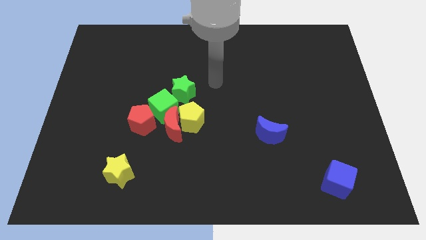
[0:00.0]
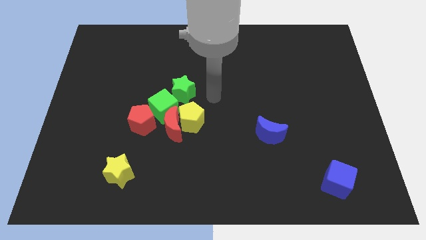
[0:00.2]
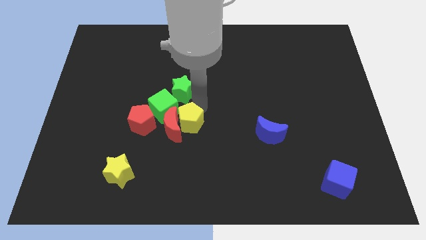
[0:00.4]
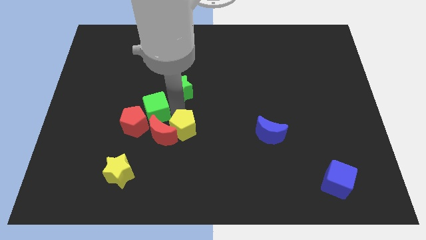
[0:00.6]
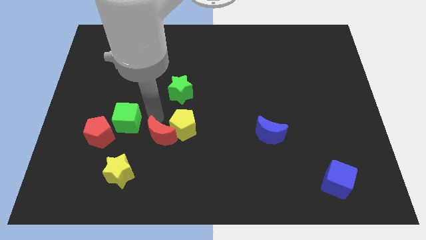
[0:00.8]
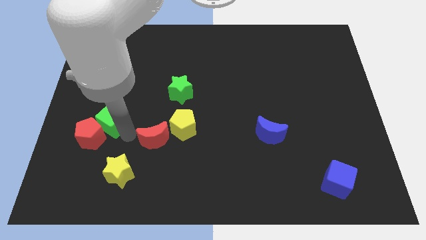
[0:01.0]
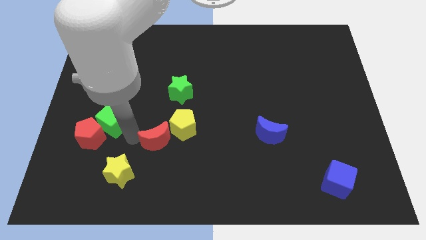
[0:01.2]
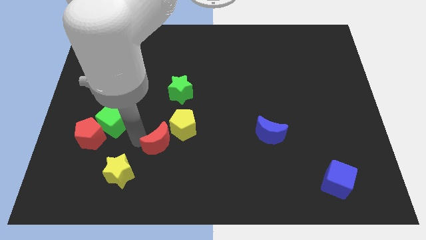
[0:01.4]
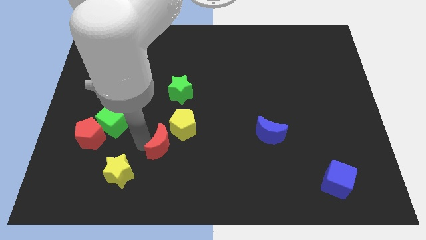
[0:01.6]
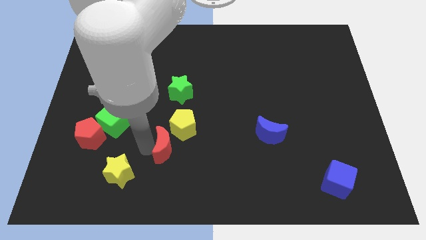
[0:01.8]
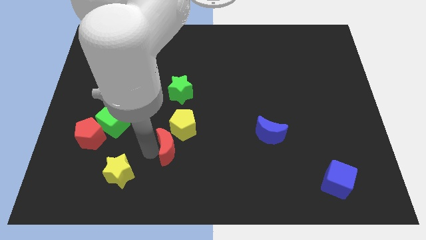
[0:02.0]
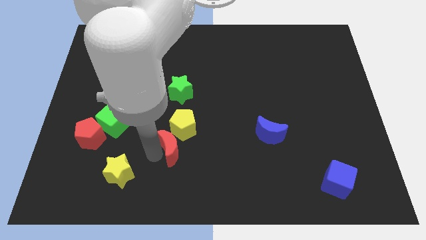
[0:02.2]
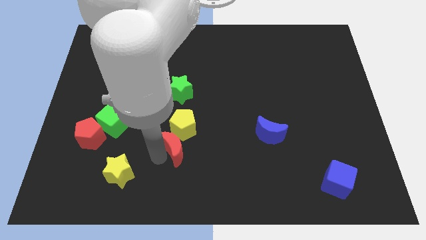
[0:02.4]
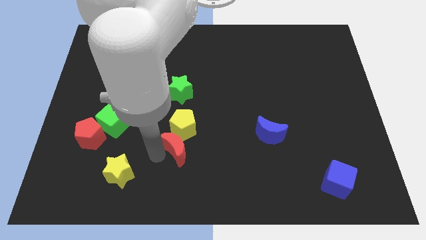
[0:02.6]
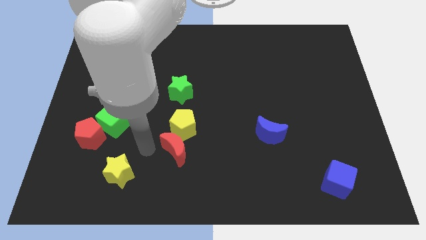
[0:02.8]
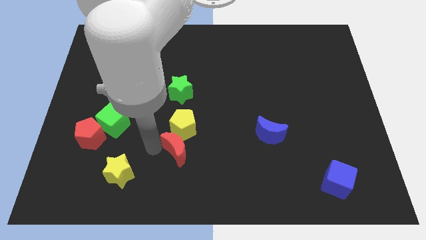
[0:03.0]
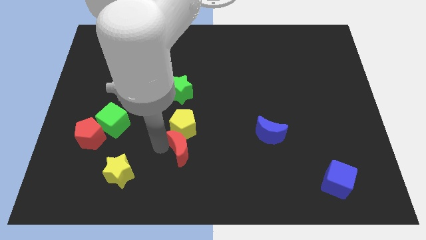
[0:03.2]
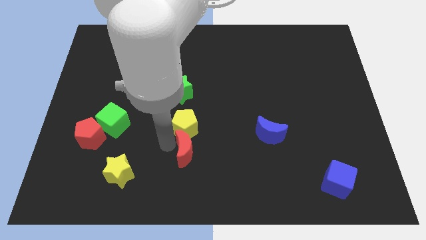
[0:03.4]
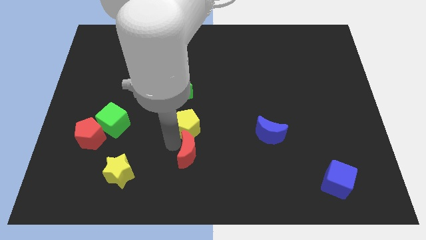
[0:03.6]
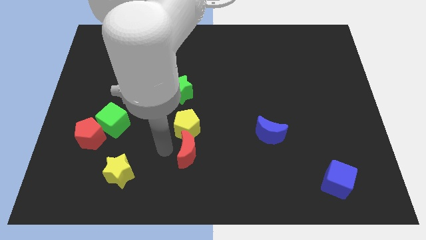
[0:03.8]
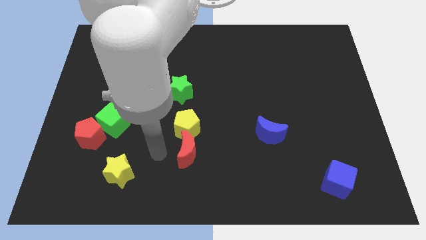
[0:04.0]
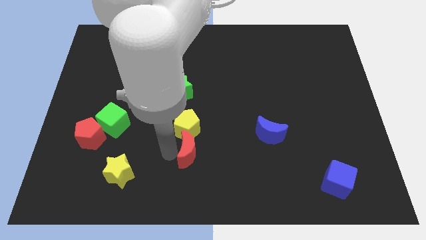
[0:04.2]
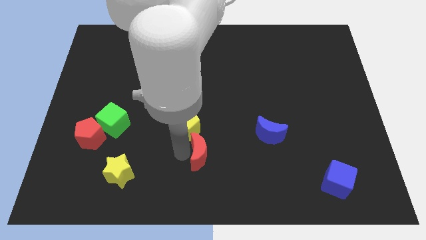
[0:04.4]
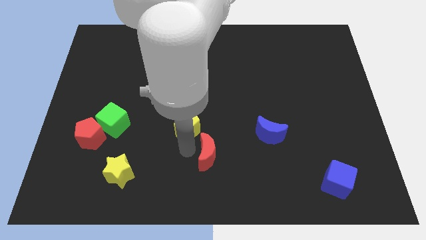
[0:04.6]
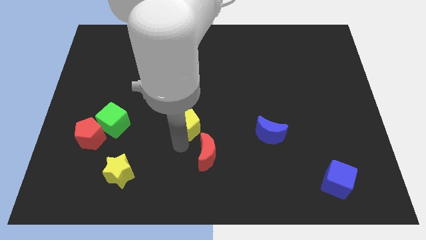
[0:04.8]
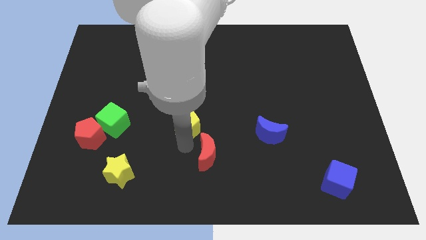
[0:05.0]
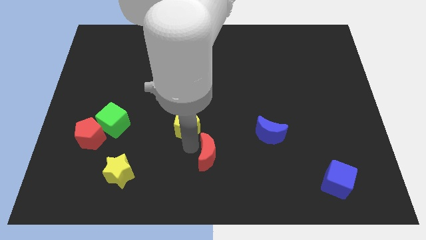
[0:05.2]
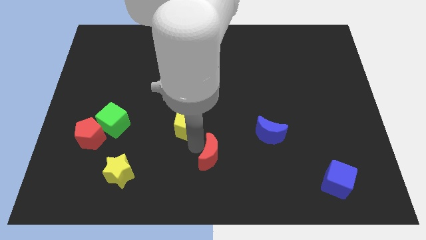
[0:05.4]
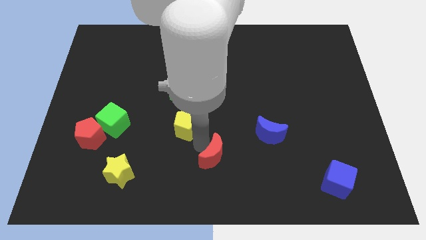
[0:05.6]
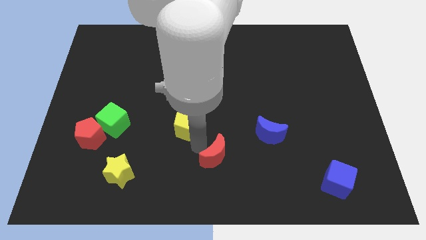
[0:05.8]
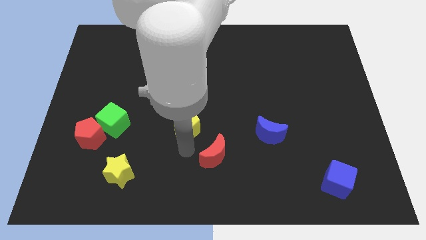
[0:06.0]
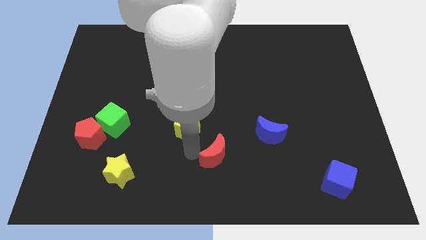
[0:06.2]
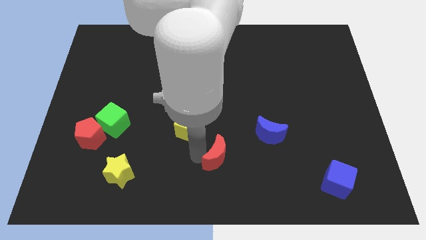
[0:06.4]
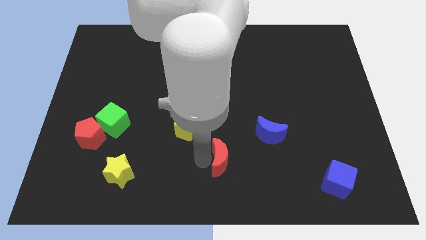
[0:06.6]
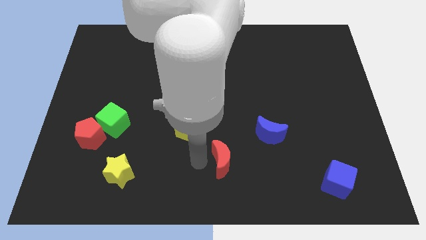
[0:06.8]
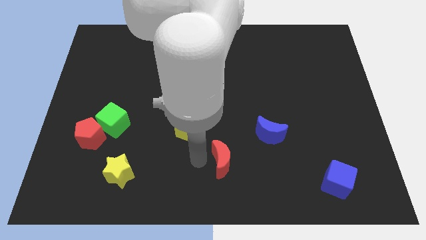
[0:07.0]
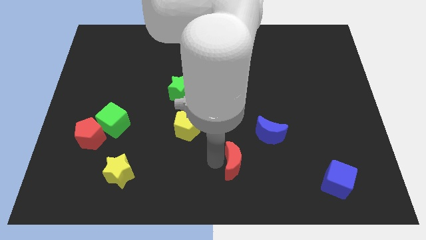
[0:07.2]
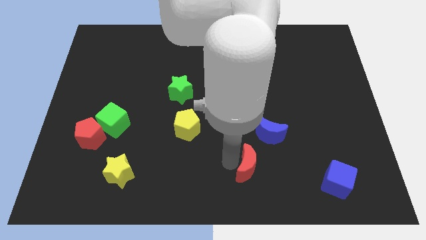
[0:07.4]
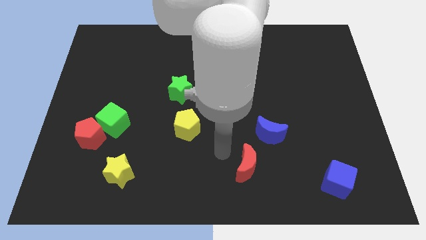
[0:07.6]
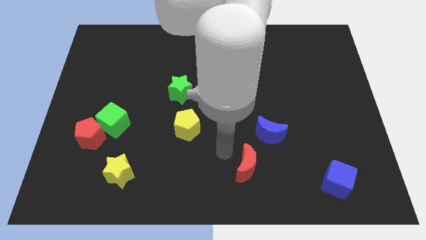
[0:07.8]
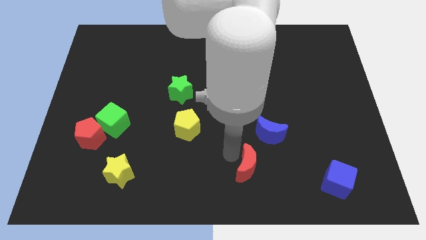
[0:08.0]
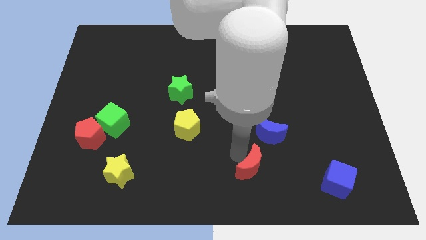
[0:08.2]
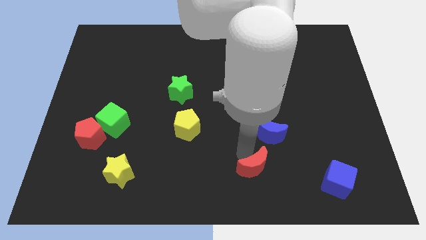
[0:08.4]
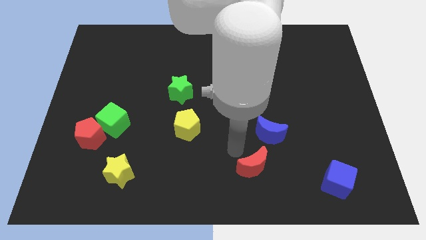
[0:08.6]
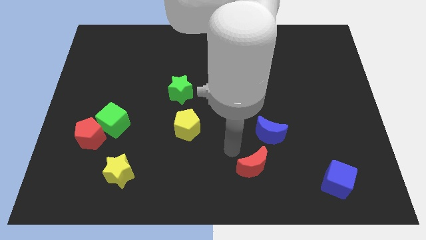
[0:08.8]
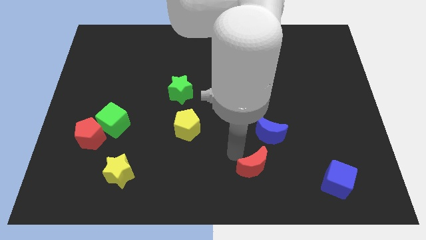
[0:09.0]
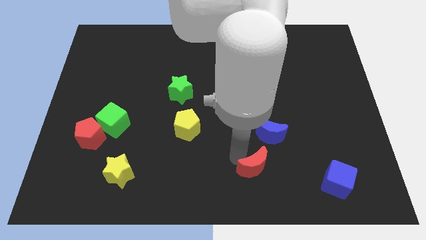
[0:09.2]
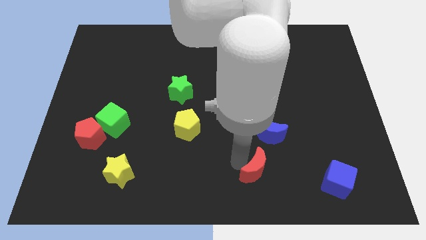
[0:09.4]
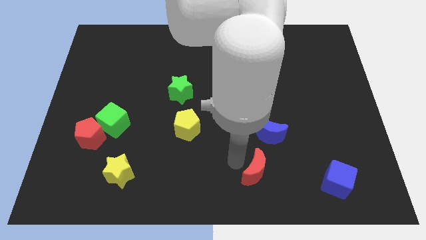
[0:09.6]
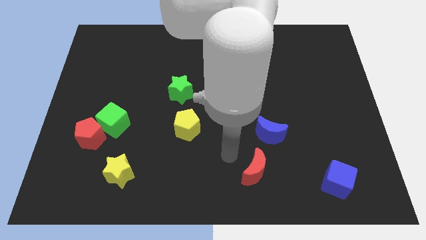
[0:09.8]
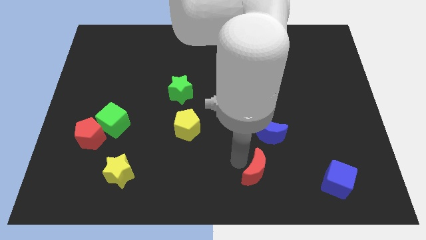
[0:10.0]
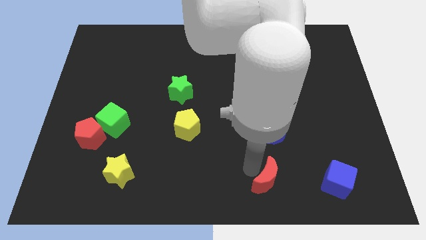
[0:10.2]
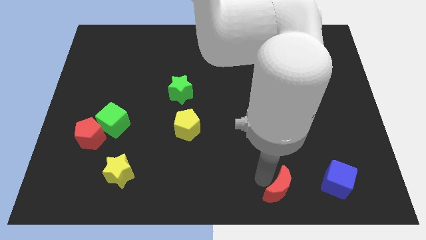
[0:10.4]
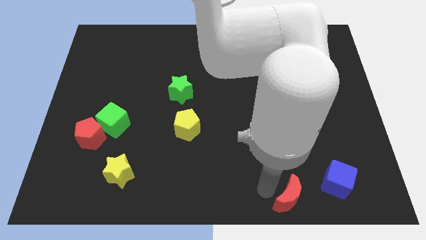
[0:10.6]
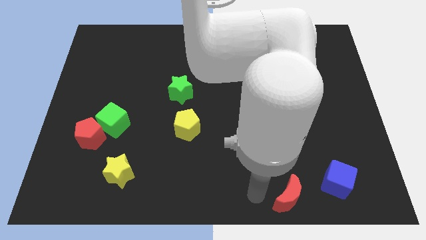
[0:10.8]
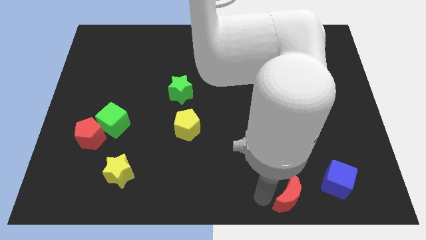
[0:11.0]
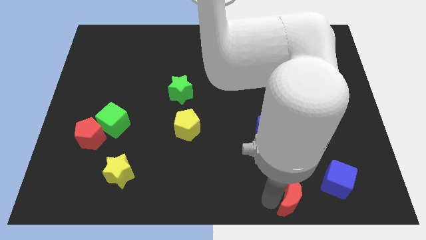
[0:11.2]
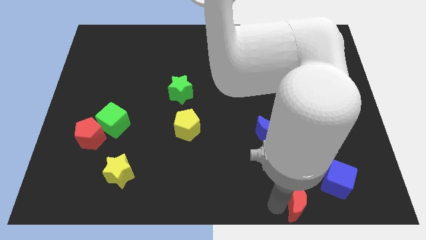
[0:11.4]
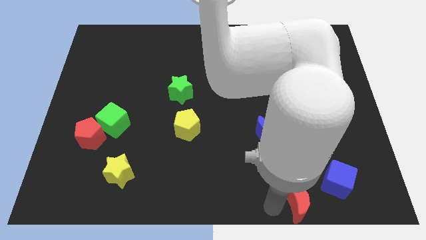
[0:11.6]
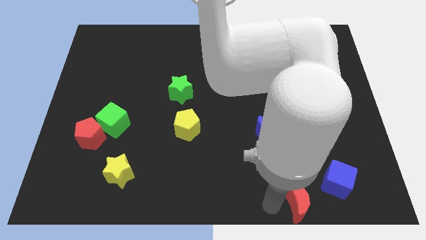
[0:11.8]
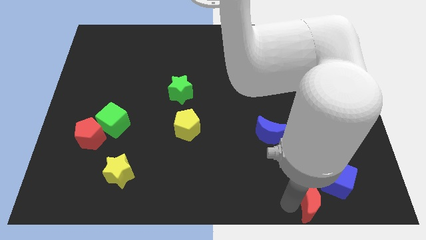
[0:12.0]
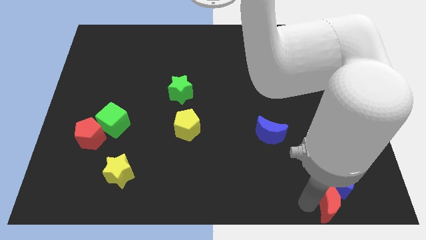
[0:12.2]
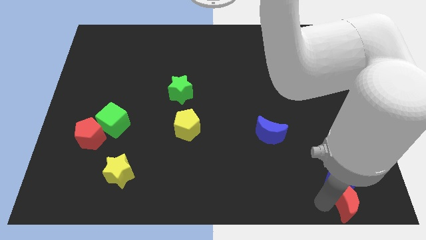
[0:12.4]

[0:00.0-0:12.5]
put the red moon to the bottom right of the board
